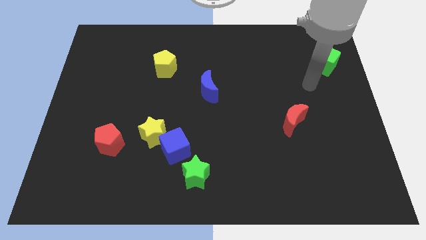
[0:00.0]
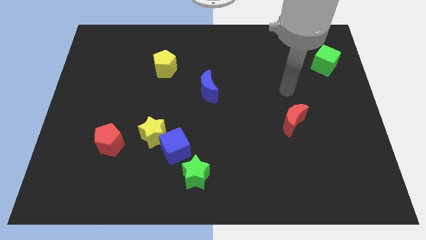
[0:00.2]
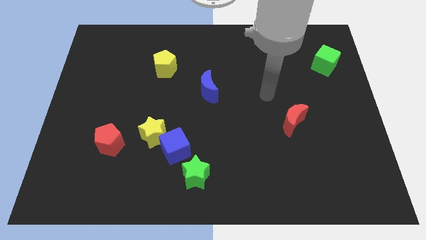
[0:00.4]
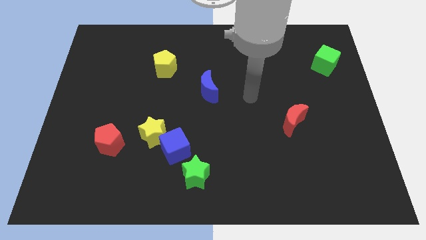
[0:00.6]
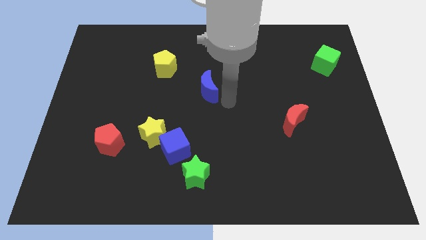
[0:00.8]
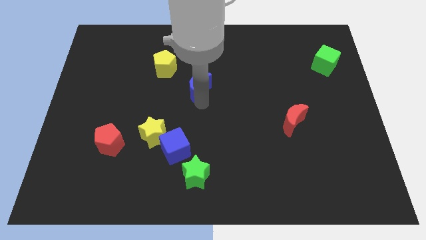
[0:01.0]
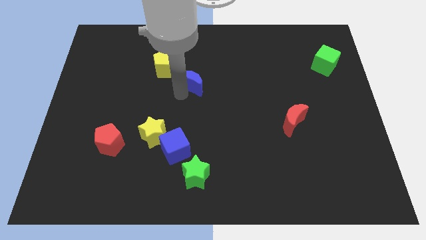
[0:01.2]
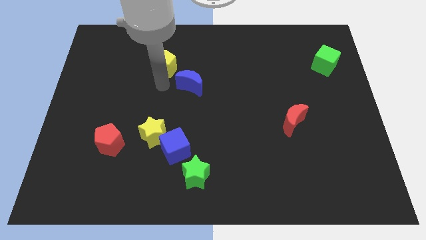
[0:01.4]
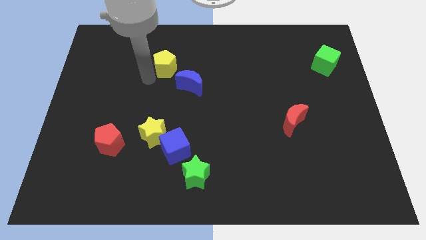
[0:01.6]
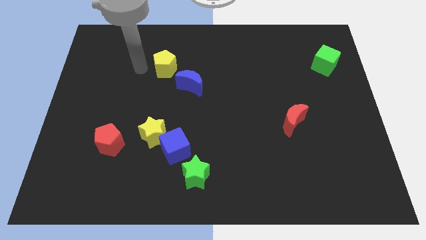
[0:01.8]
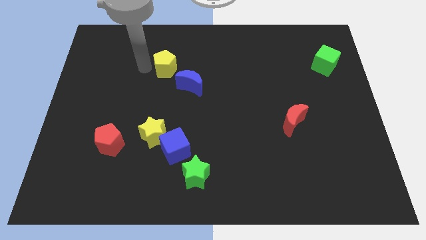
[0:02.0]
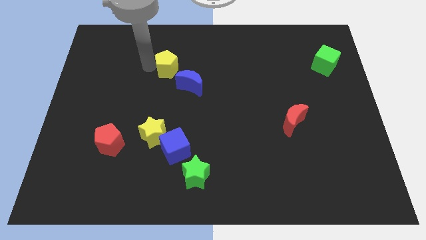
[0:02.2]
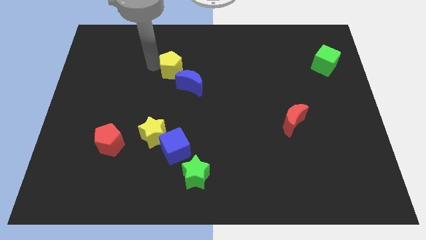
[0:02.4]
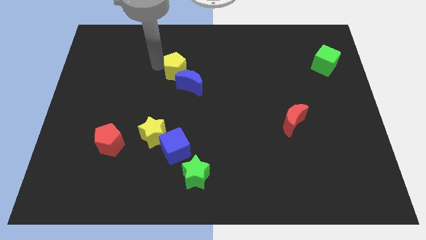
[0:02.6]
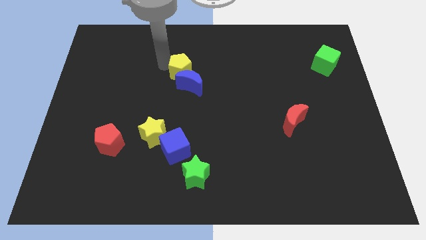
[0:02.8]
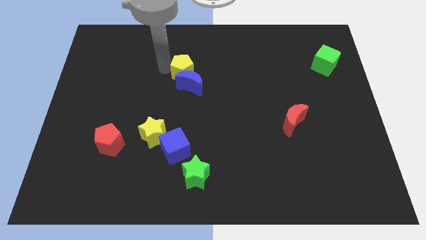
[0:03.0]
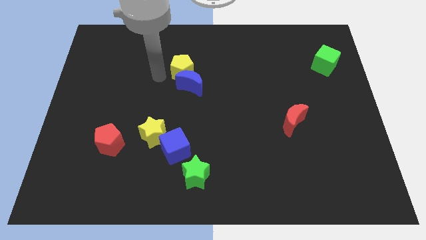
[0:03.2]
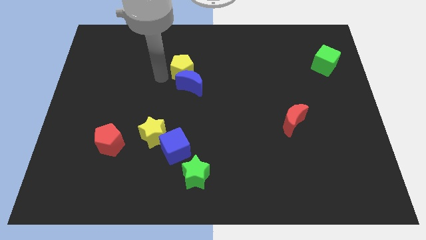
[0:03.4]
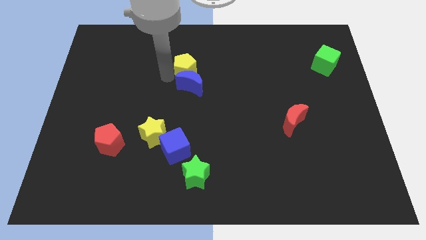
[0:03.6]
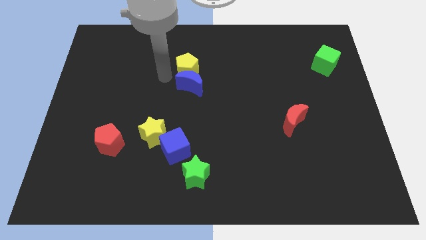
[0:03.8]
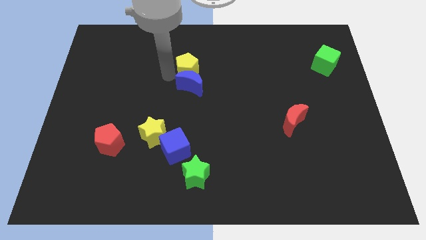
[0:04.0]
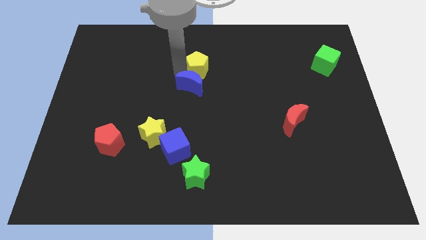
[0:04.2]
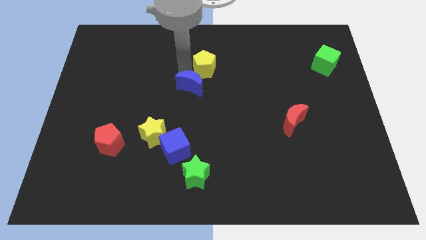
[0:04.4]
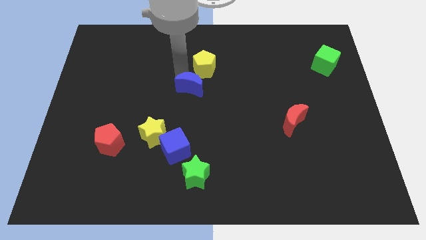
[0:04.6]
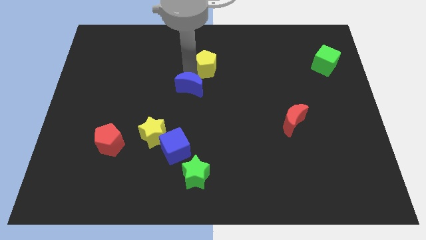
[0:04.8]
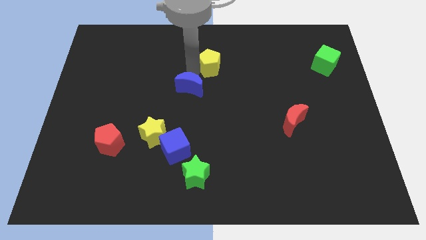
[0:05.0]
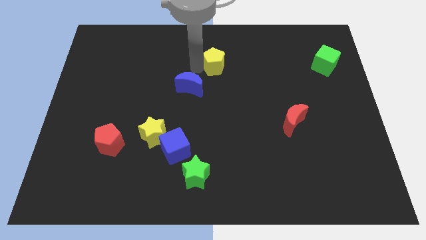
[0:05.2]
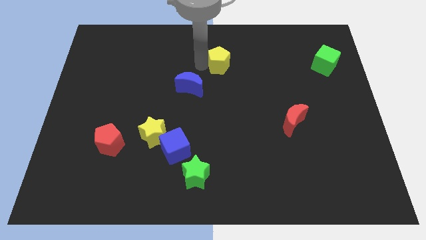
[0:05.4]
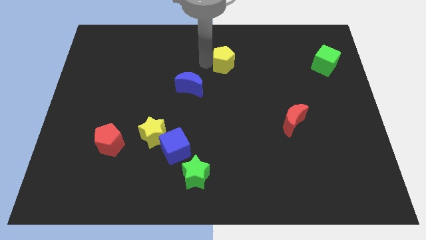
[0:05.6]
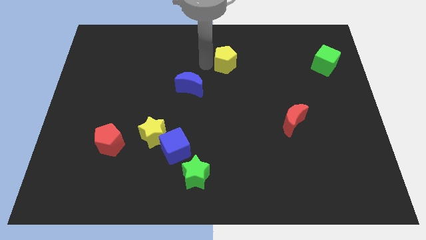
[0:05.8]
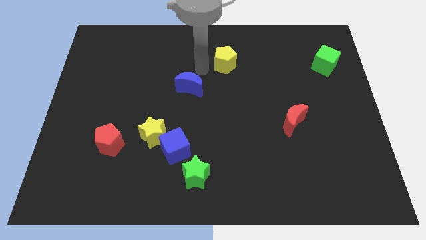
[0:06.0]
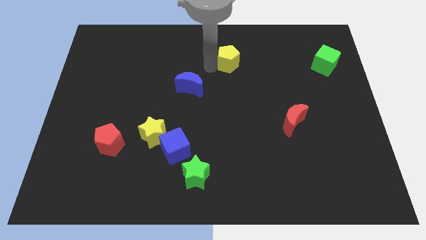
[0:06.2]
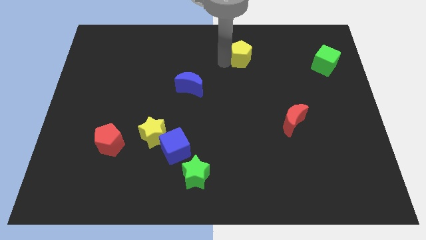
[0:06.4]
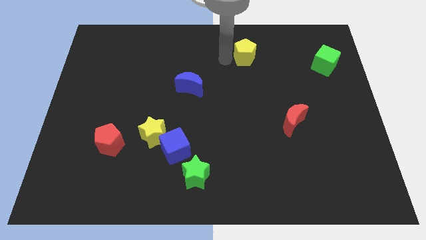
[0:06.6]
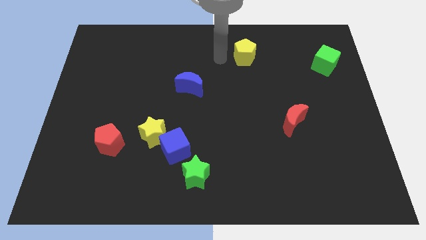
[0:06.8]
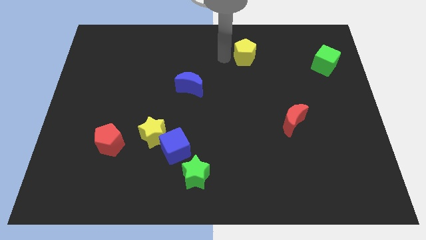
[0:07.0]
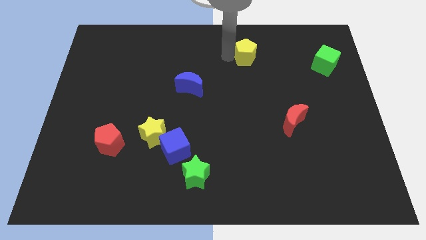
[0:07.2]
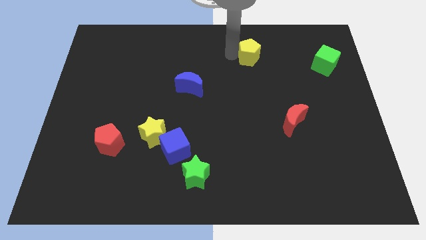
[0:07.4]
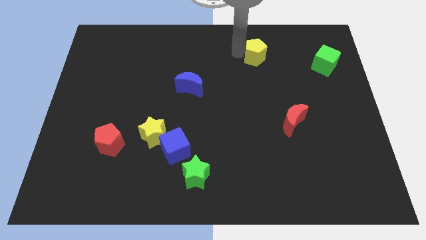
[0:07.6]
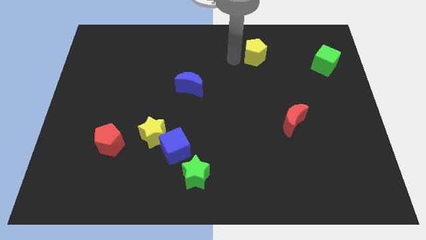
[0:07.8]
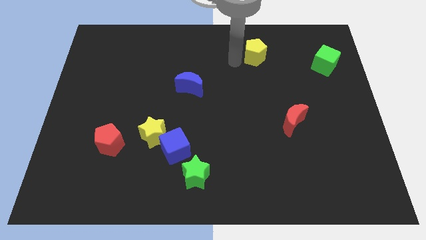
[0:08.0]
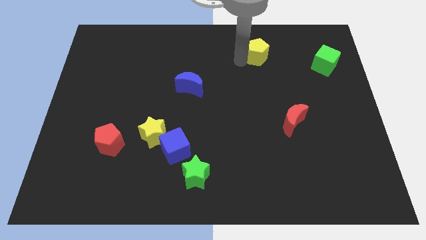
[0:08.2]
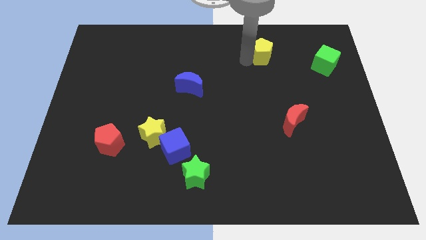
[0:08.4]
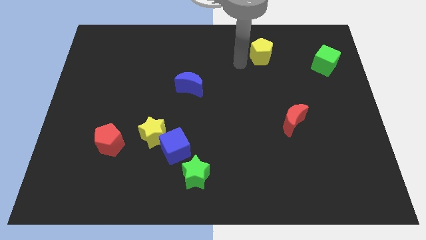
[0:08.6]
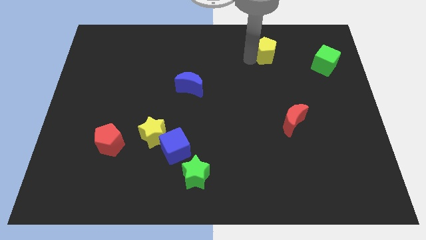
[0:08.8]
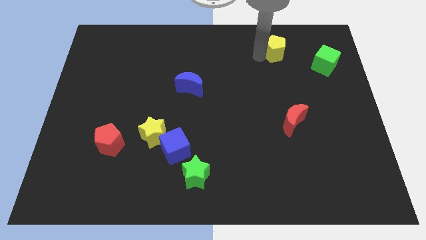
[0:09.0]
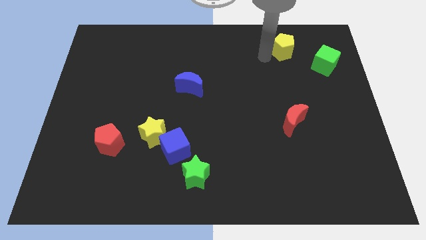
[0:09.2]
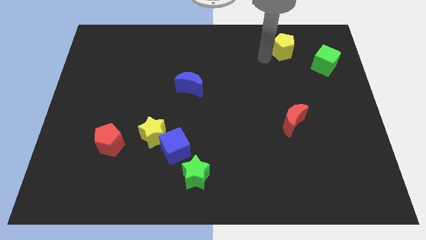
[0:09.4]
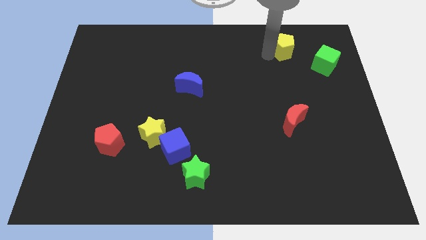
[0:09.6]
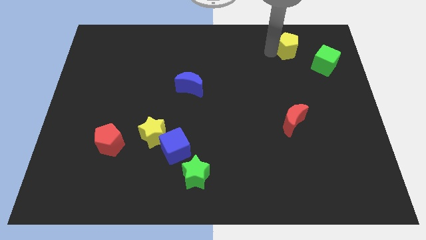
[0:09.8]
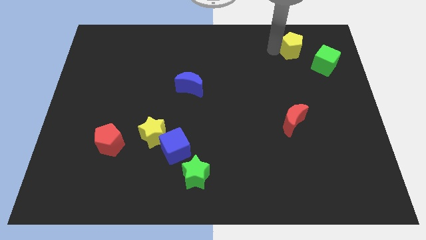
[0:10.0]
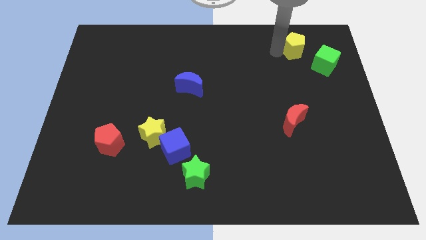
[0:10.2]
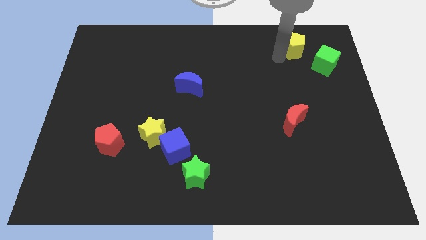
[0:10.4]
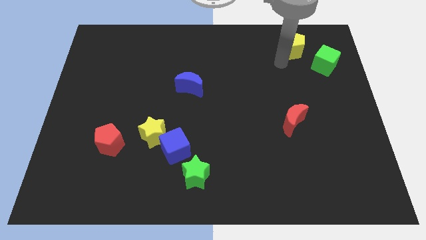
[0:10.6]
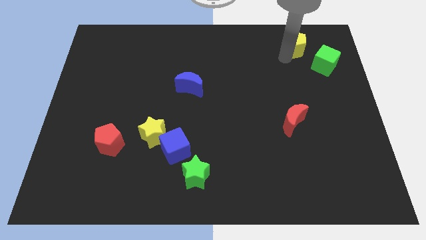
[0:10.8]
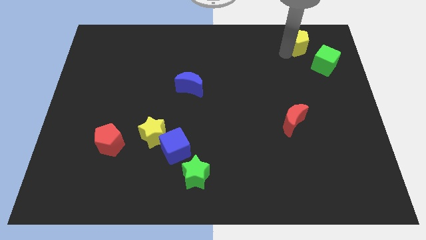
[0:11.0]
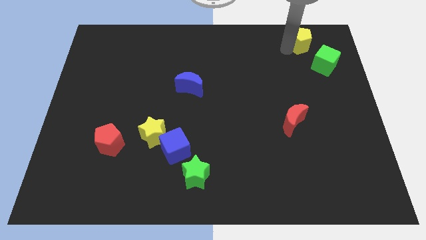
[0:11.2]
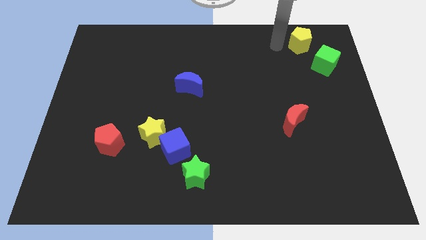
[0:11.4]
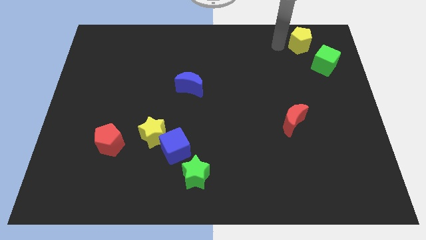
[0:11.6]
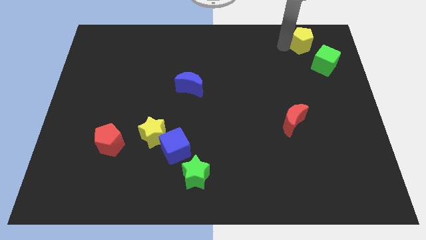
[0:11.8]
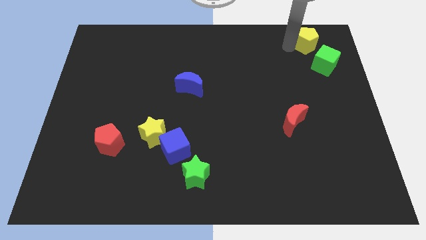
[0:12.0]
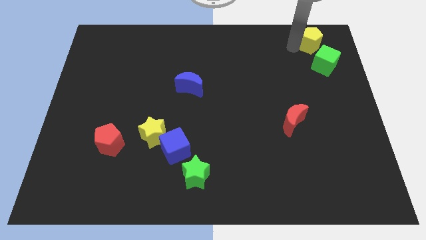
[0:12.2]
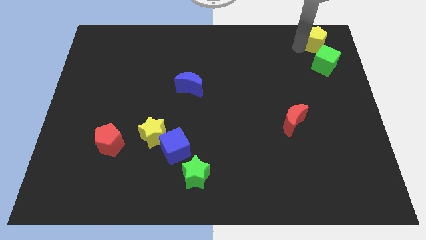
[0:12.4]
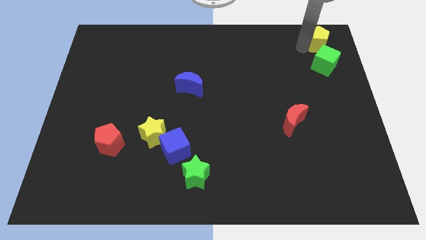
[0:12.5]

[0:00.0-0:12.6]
move the yellow pentagon to the top right corner
